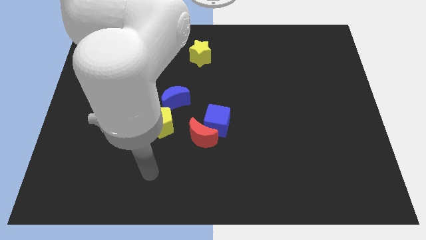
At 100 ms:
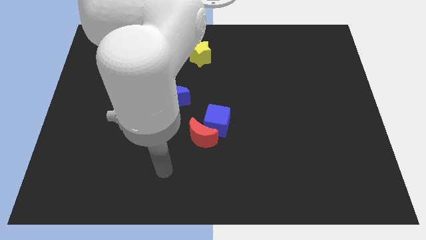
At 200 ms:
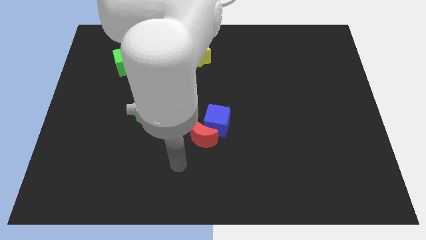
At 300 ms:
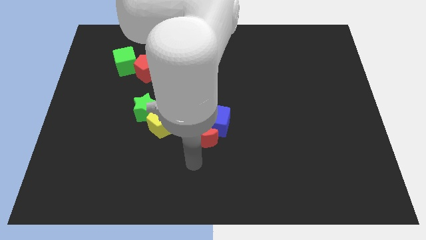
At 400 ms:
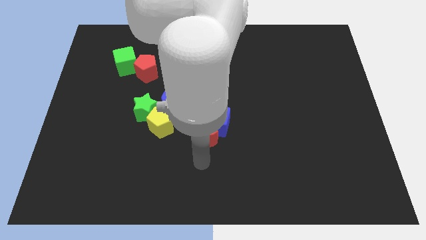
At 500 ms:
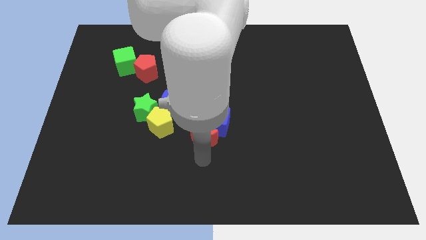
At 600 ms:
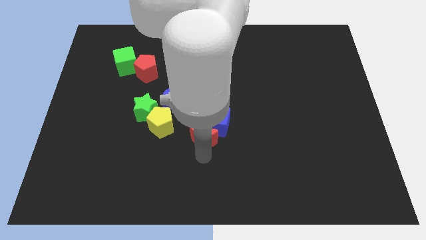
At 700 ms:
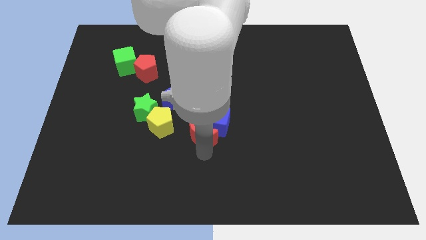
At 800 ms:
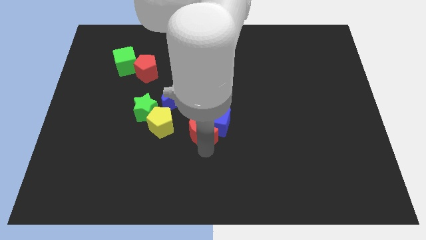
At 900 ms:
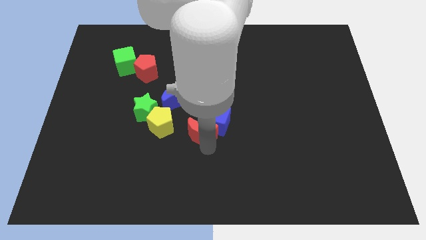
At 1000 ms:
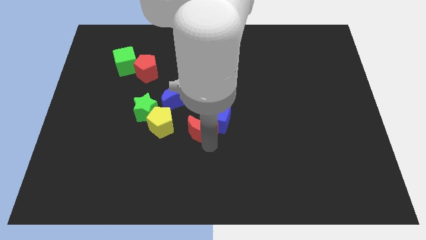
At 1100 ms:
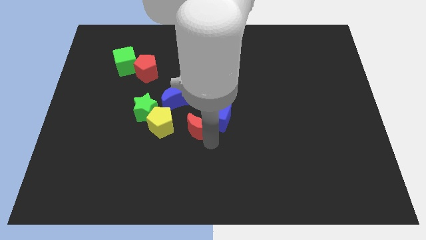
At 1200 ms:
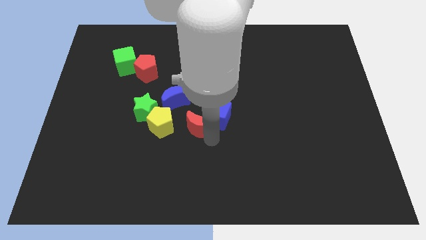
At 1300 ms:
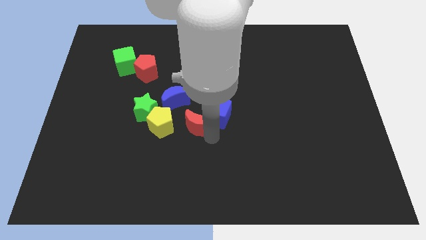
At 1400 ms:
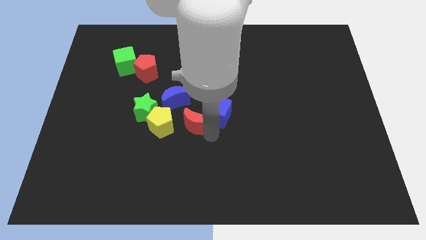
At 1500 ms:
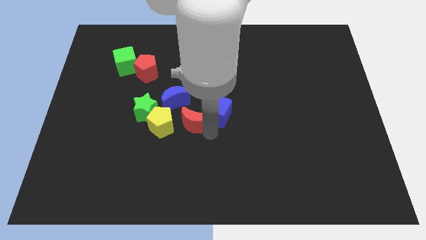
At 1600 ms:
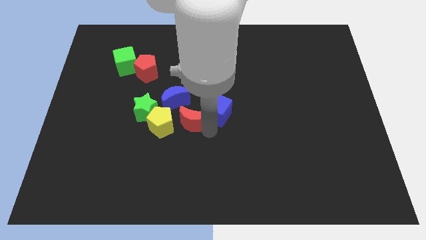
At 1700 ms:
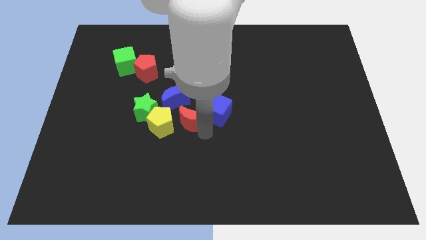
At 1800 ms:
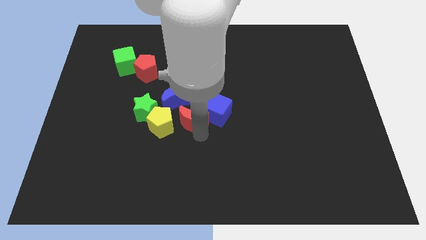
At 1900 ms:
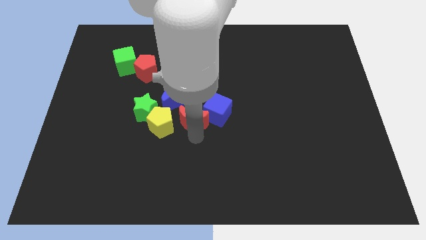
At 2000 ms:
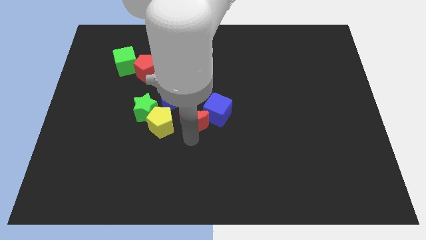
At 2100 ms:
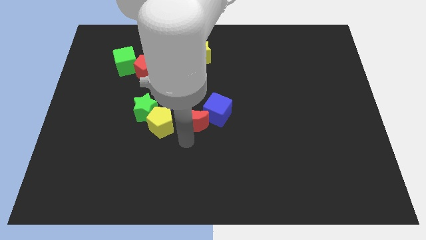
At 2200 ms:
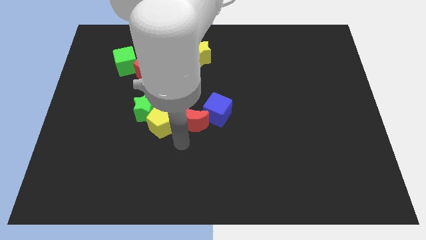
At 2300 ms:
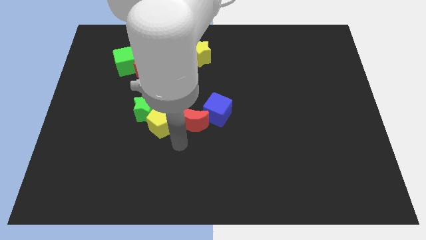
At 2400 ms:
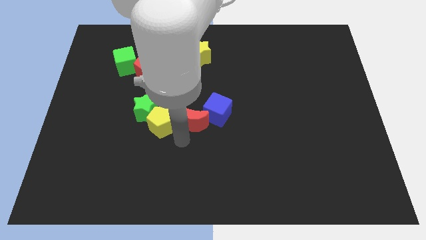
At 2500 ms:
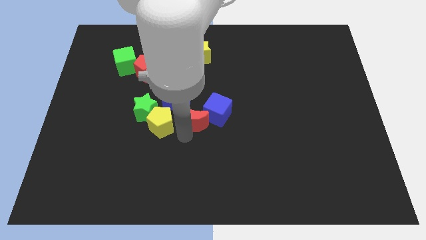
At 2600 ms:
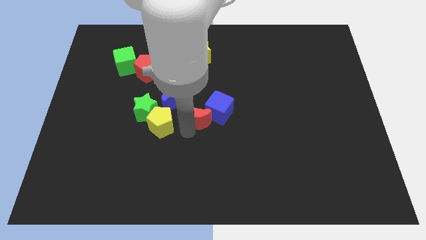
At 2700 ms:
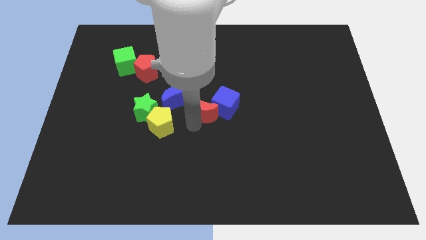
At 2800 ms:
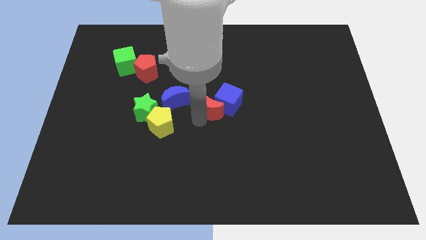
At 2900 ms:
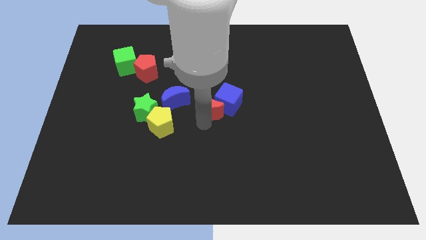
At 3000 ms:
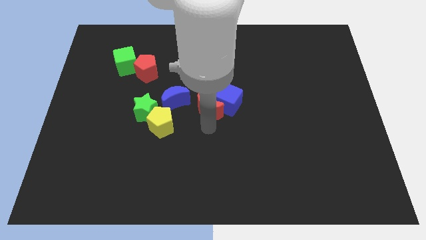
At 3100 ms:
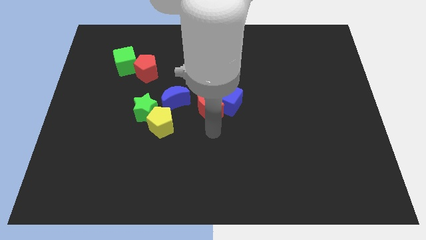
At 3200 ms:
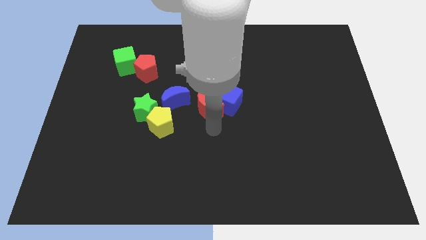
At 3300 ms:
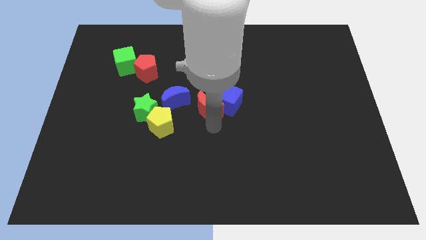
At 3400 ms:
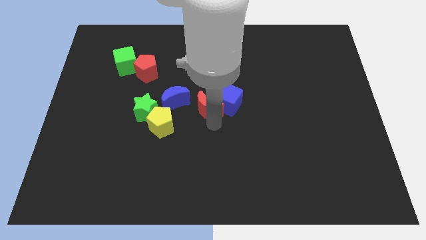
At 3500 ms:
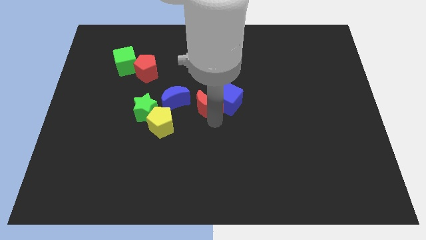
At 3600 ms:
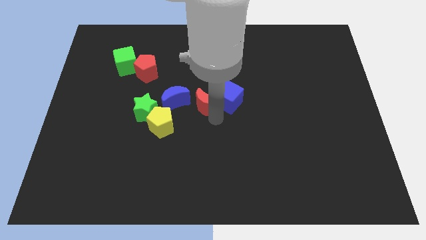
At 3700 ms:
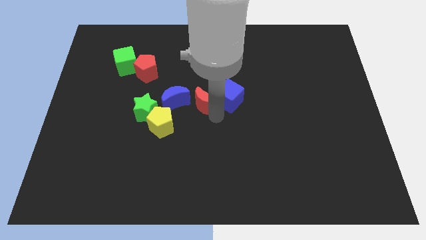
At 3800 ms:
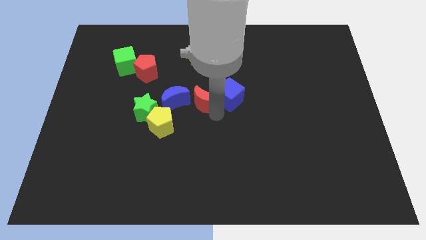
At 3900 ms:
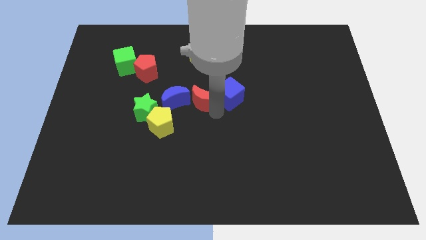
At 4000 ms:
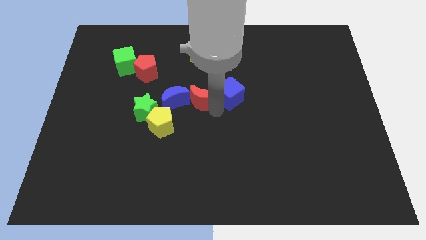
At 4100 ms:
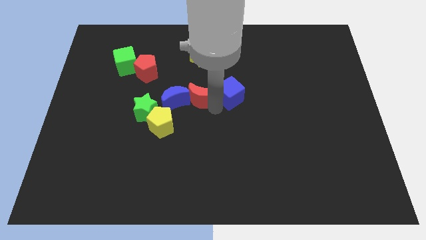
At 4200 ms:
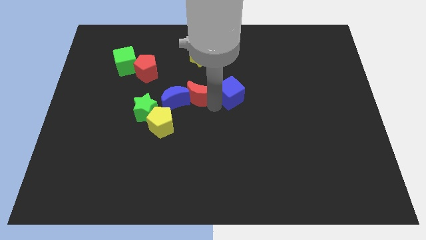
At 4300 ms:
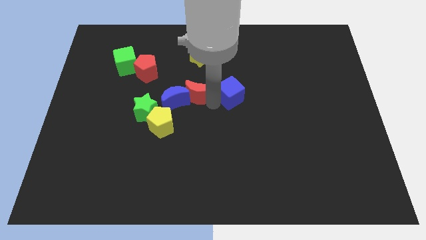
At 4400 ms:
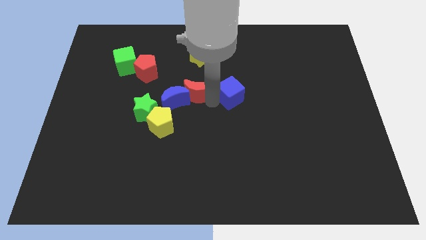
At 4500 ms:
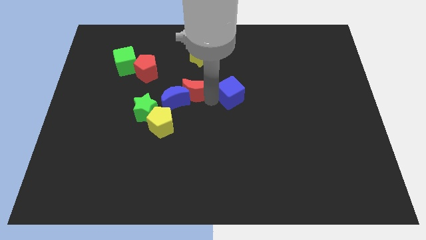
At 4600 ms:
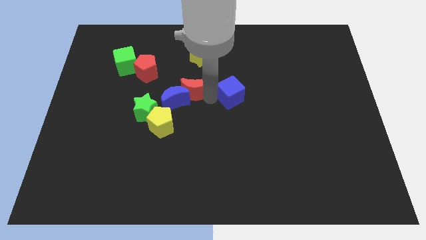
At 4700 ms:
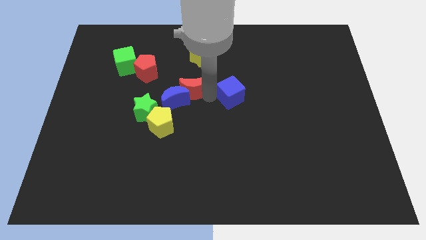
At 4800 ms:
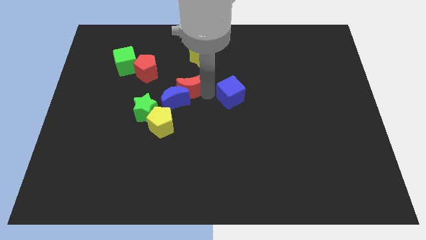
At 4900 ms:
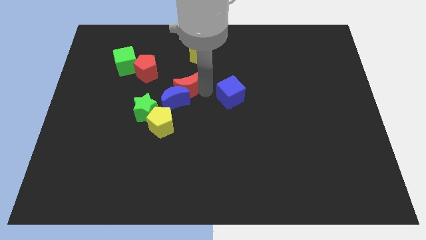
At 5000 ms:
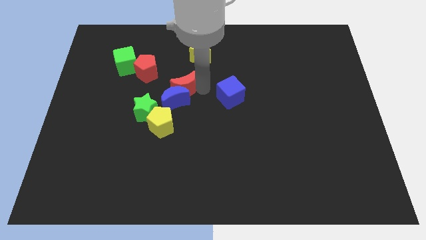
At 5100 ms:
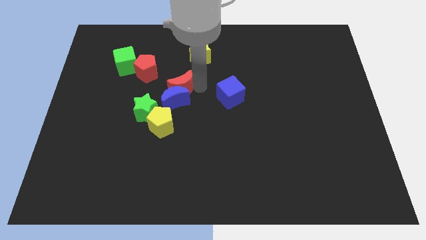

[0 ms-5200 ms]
slide the red moon diagonally up and to the left of the blue moon

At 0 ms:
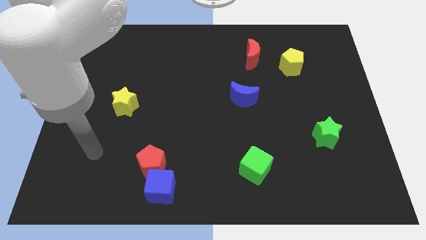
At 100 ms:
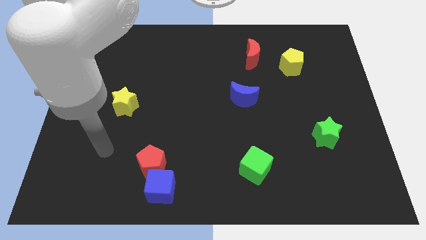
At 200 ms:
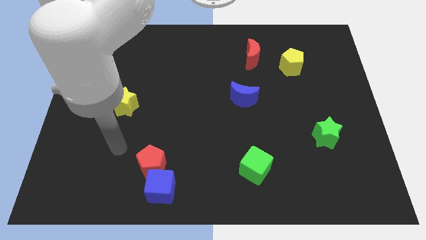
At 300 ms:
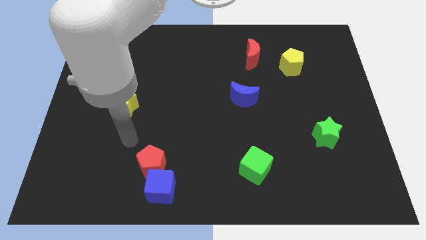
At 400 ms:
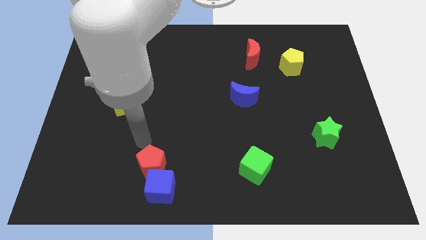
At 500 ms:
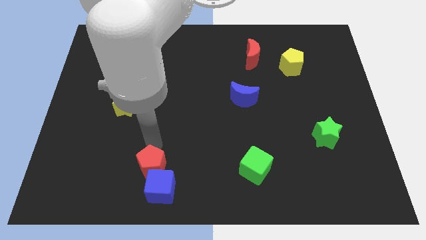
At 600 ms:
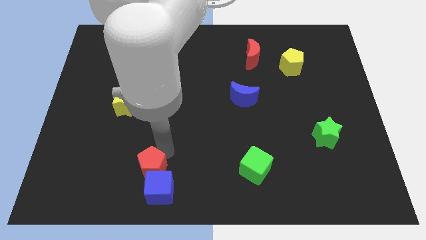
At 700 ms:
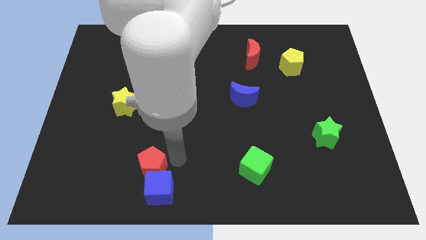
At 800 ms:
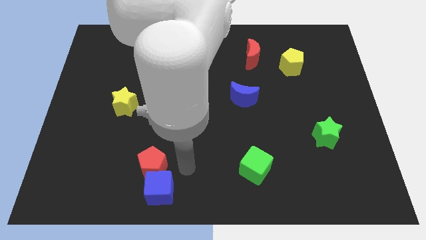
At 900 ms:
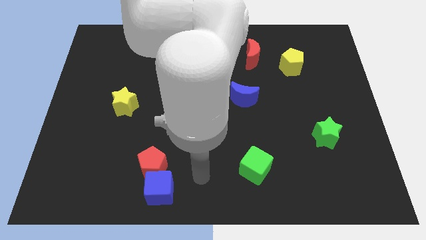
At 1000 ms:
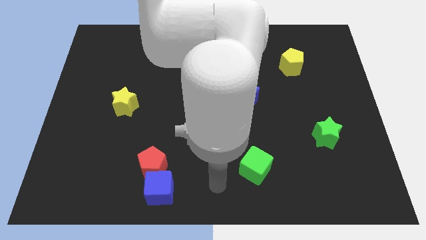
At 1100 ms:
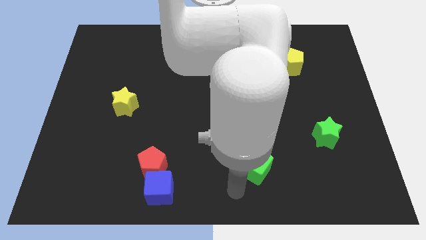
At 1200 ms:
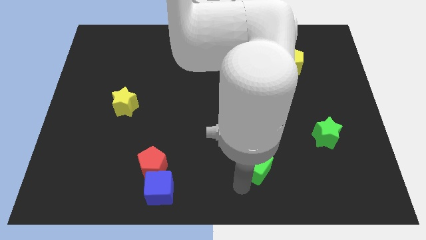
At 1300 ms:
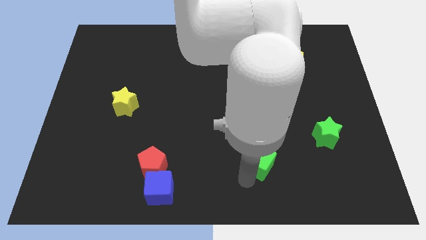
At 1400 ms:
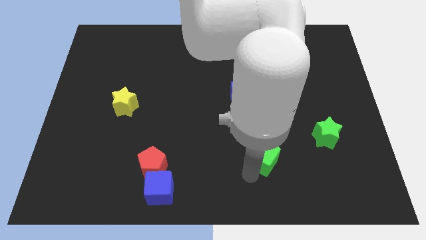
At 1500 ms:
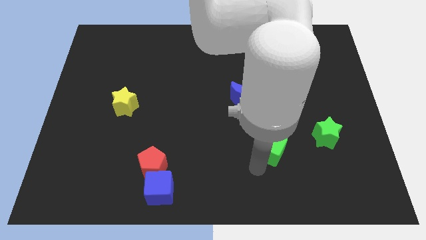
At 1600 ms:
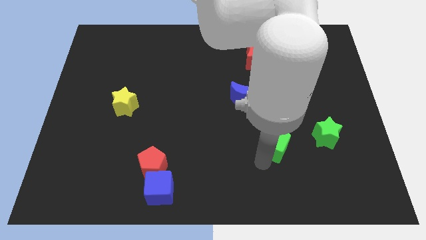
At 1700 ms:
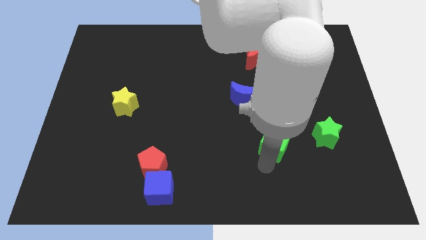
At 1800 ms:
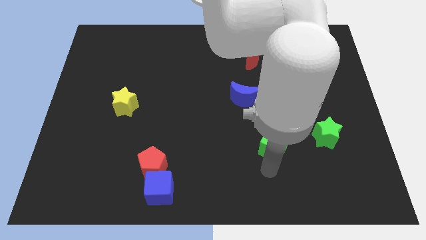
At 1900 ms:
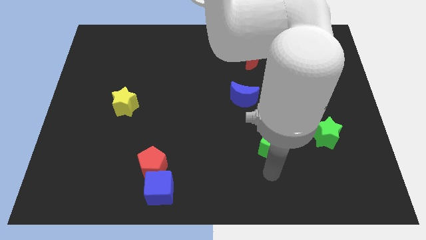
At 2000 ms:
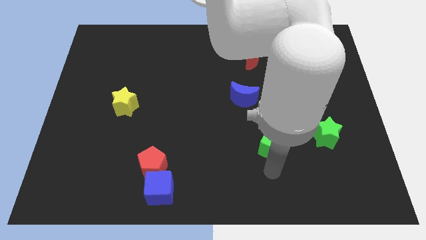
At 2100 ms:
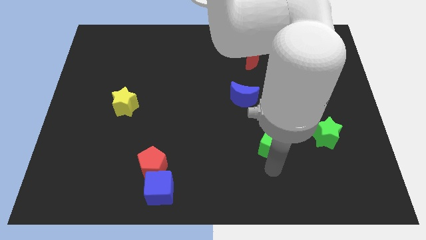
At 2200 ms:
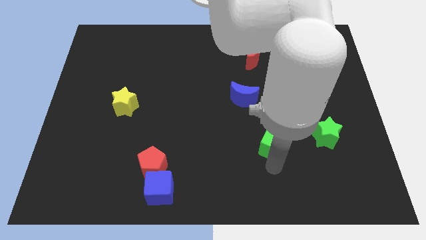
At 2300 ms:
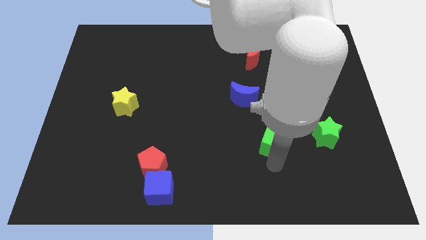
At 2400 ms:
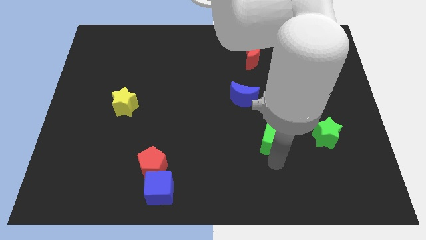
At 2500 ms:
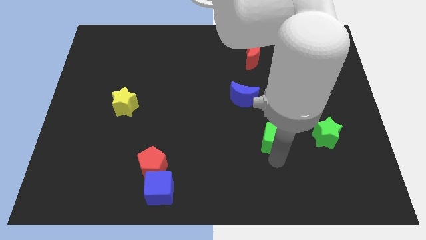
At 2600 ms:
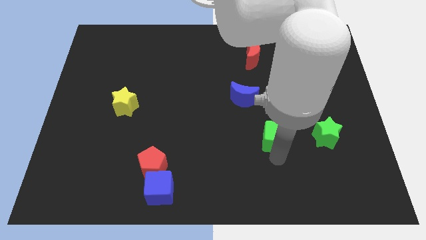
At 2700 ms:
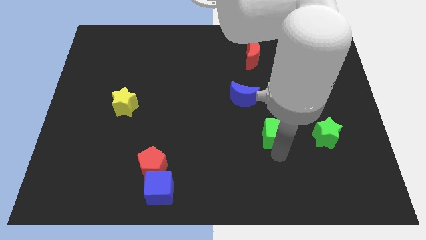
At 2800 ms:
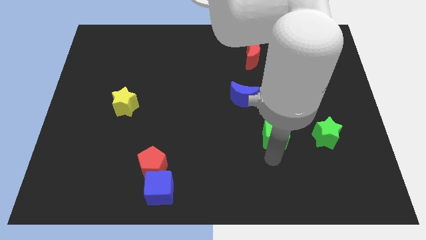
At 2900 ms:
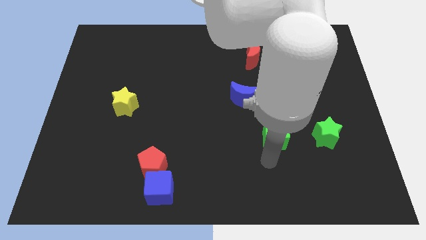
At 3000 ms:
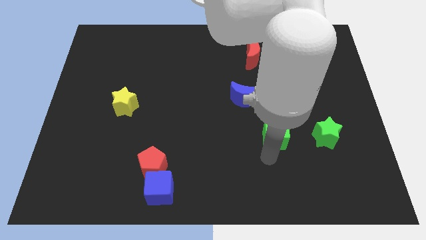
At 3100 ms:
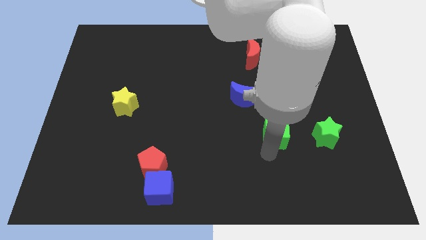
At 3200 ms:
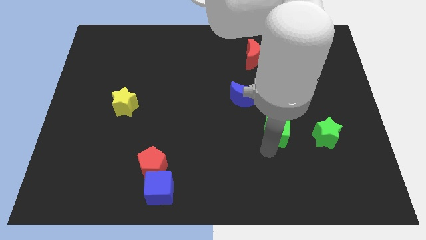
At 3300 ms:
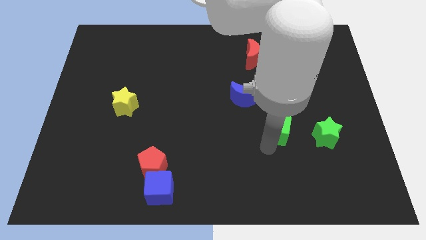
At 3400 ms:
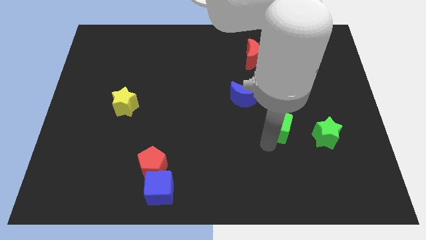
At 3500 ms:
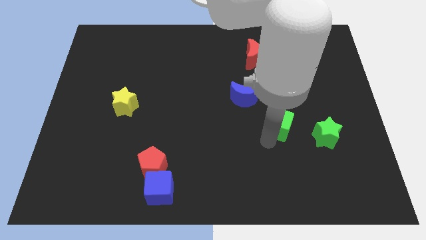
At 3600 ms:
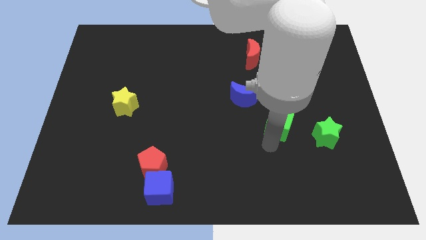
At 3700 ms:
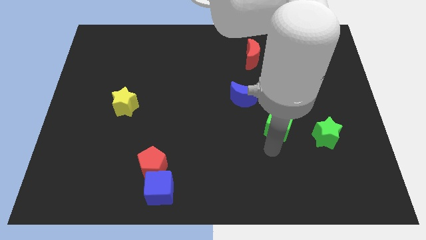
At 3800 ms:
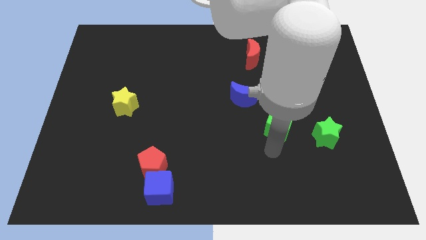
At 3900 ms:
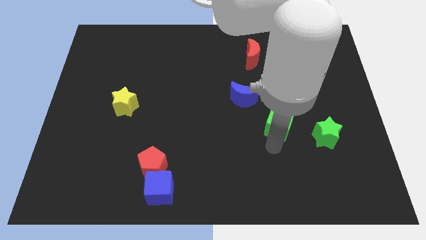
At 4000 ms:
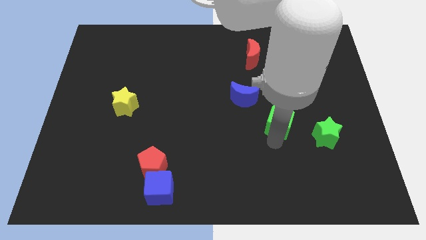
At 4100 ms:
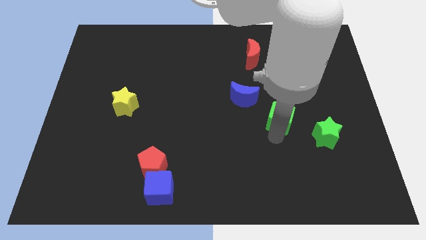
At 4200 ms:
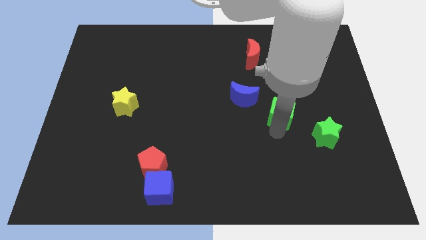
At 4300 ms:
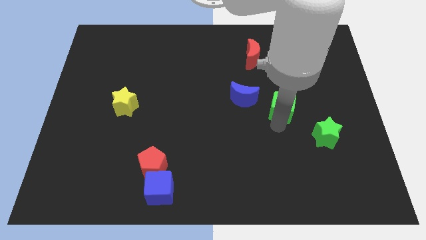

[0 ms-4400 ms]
put the green cube to the right side of the blue moon
